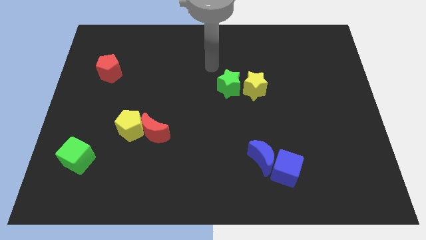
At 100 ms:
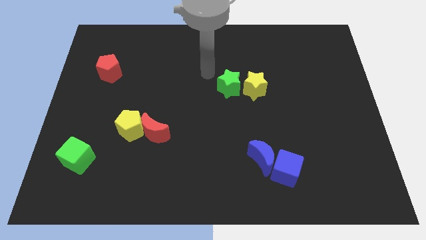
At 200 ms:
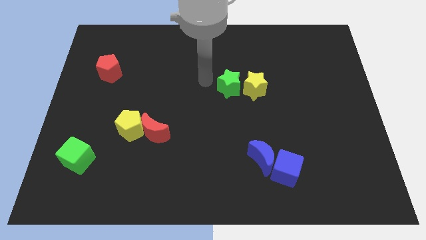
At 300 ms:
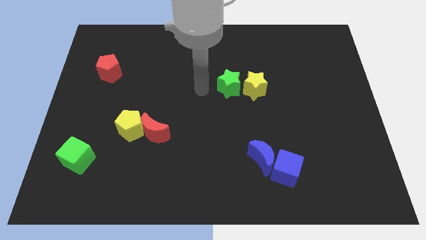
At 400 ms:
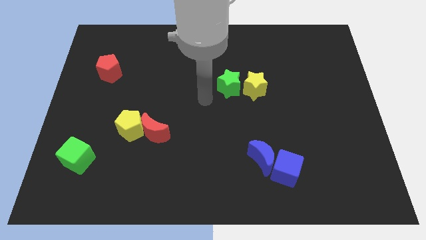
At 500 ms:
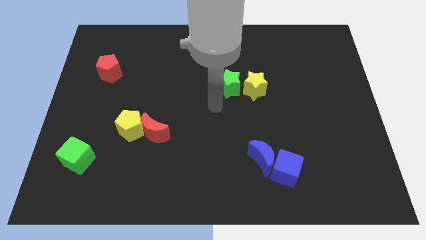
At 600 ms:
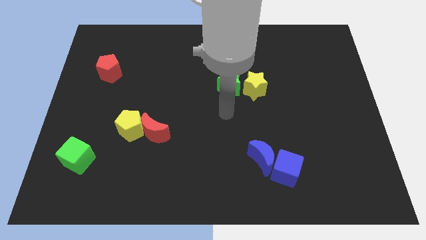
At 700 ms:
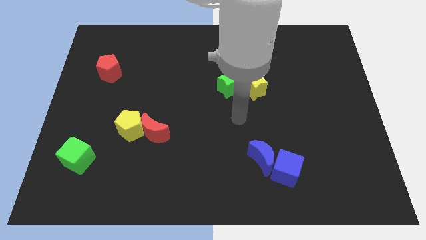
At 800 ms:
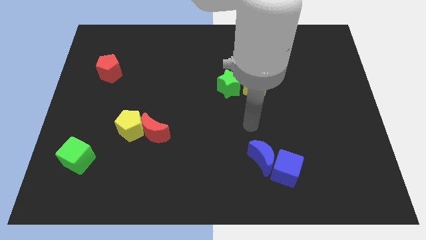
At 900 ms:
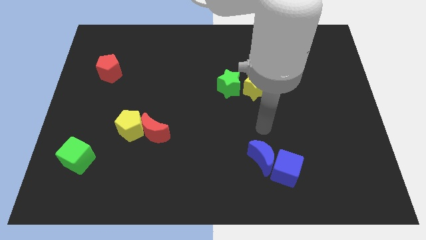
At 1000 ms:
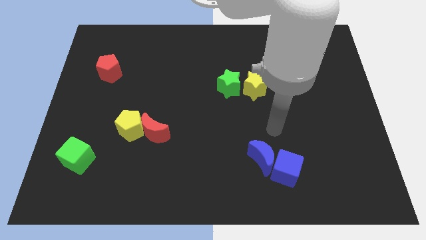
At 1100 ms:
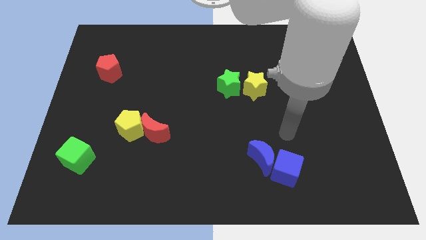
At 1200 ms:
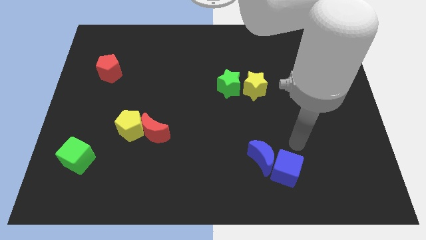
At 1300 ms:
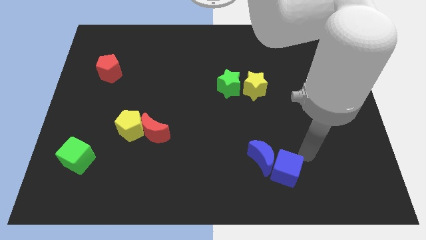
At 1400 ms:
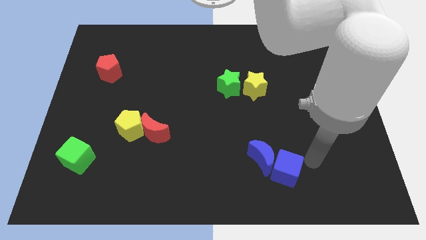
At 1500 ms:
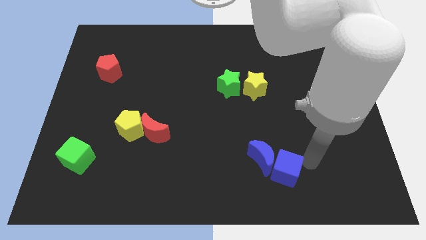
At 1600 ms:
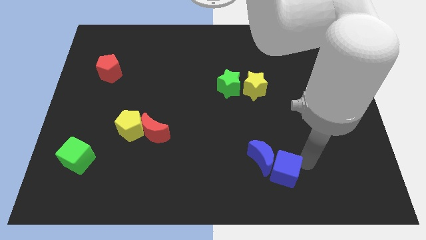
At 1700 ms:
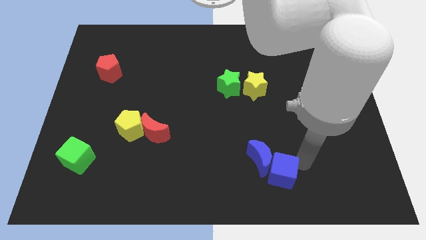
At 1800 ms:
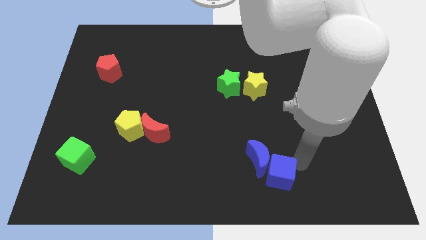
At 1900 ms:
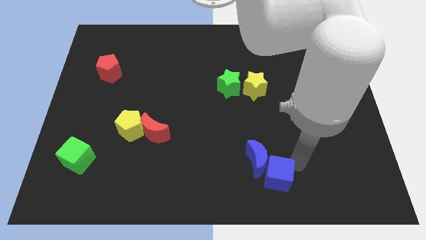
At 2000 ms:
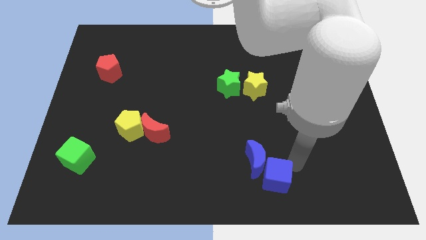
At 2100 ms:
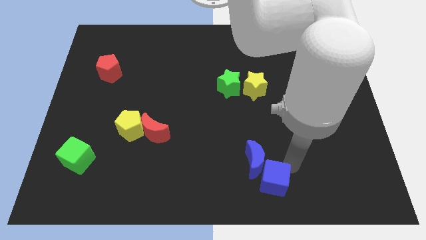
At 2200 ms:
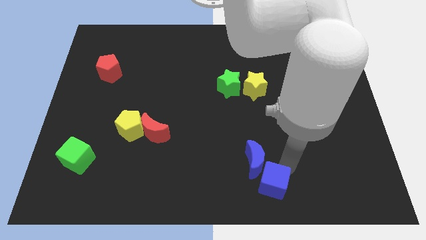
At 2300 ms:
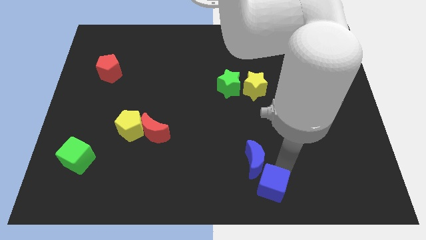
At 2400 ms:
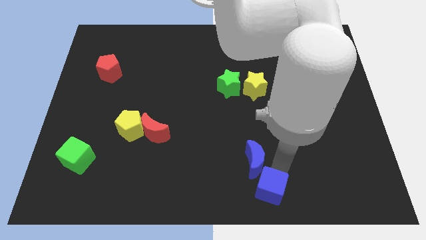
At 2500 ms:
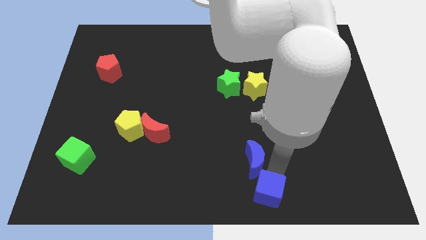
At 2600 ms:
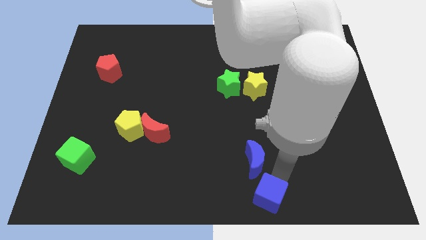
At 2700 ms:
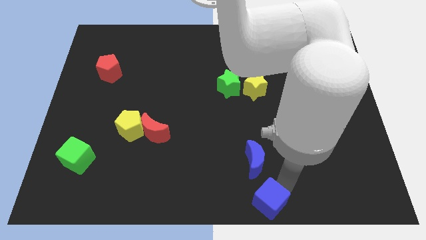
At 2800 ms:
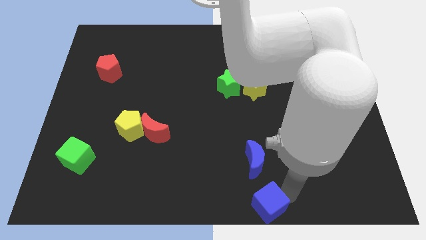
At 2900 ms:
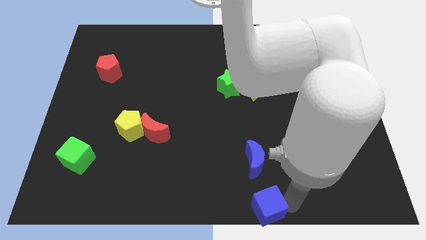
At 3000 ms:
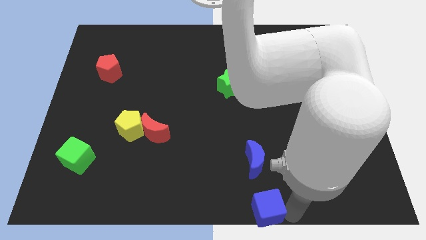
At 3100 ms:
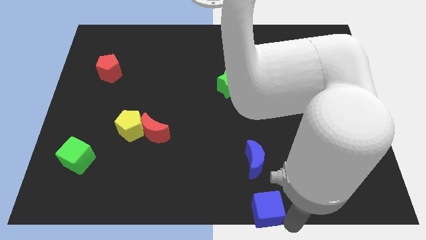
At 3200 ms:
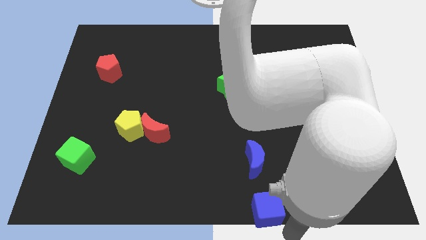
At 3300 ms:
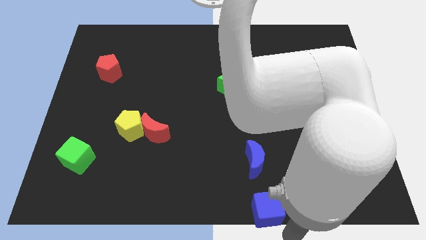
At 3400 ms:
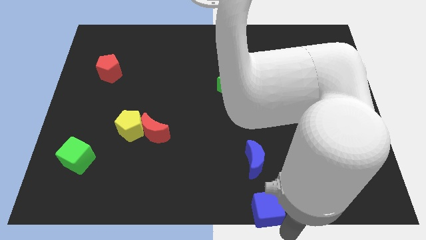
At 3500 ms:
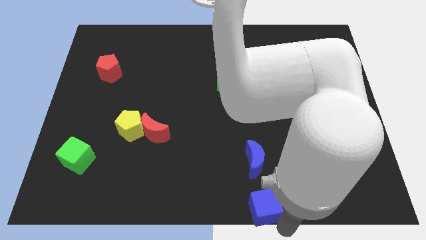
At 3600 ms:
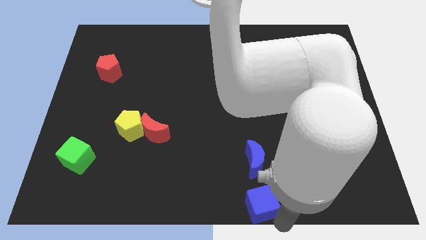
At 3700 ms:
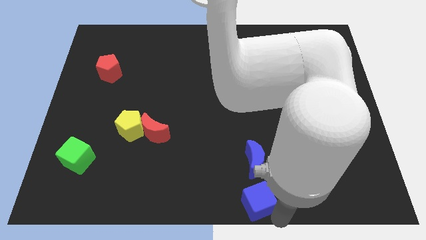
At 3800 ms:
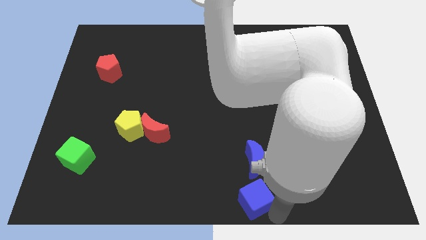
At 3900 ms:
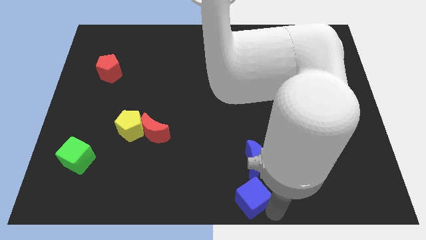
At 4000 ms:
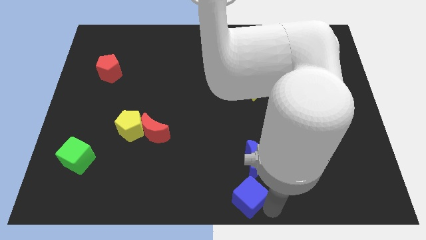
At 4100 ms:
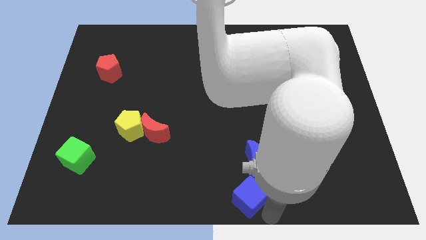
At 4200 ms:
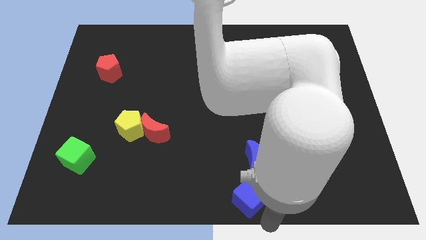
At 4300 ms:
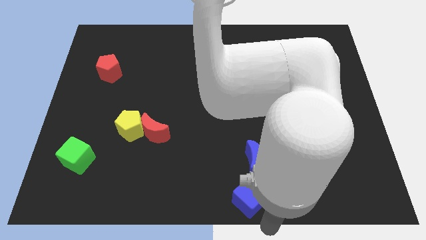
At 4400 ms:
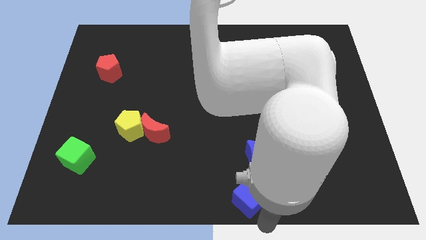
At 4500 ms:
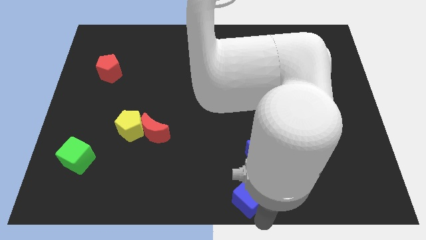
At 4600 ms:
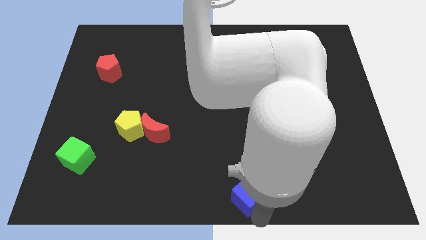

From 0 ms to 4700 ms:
push the blue cube a bit to the left

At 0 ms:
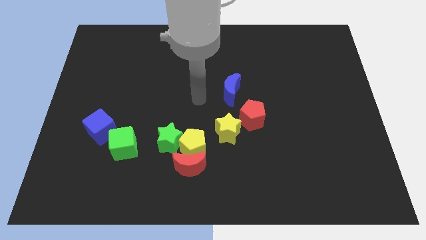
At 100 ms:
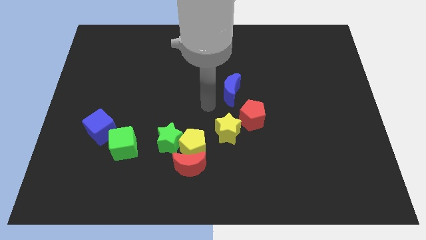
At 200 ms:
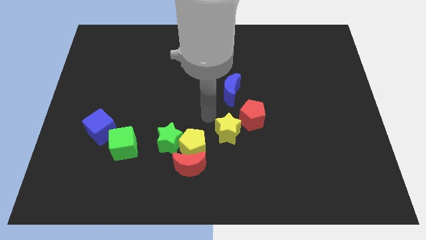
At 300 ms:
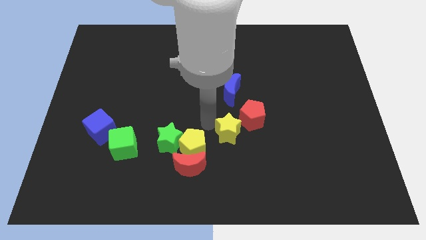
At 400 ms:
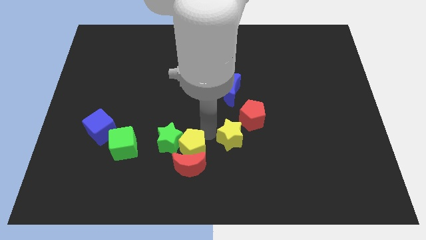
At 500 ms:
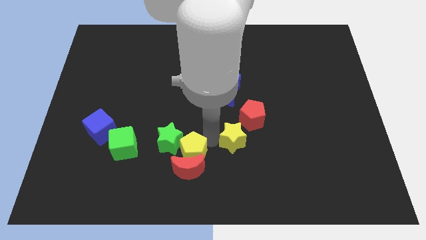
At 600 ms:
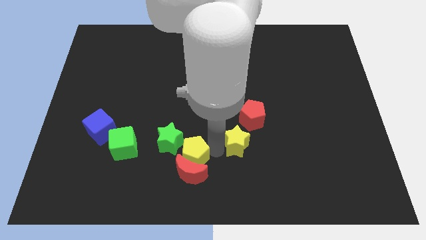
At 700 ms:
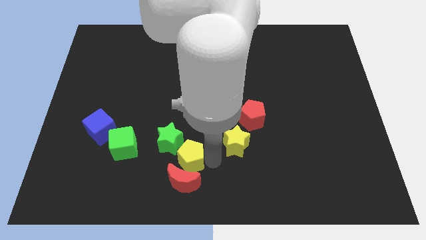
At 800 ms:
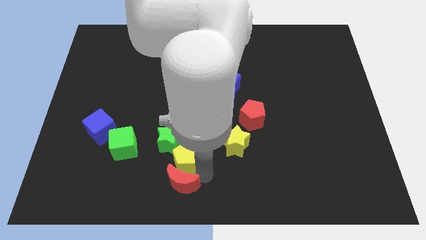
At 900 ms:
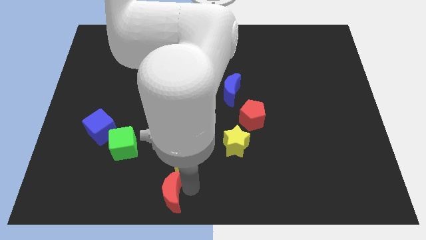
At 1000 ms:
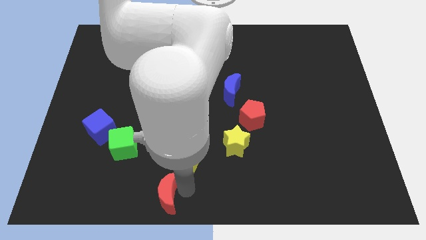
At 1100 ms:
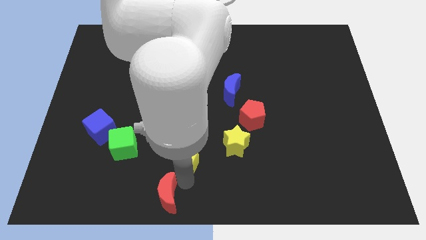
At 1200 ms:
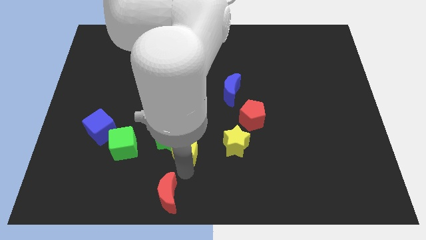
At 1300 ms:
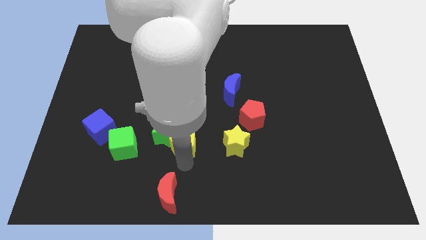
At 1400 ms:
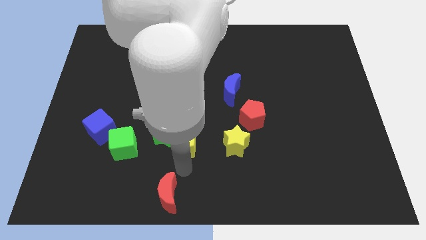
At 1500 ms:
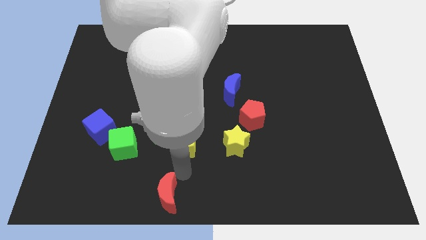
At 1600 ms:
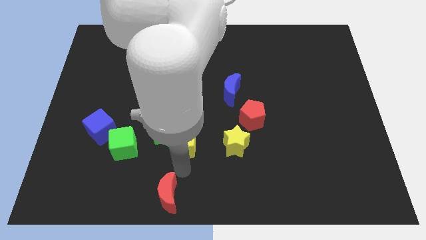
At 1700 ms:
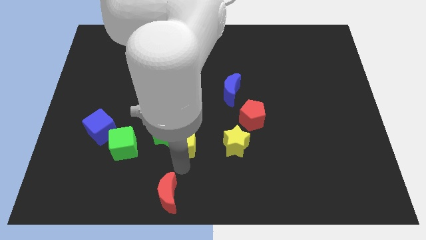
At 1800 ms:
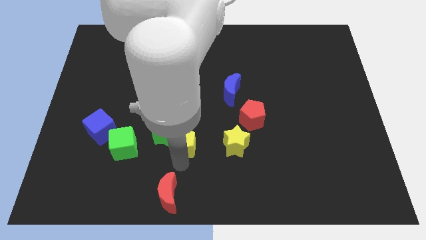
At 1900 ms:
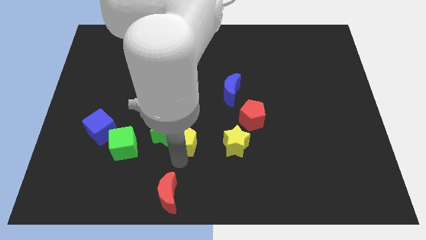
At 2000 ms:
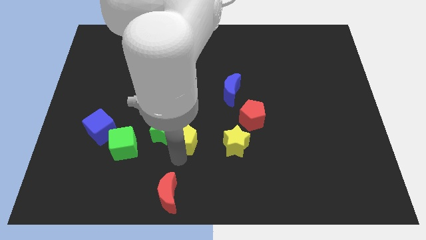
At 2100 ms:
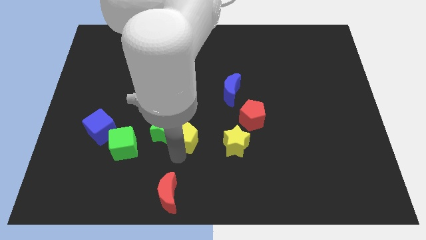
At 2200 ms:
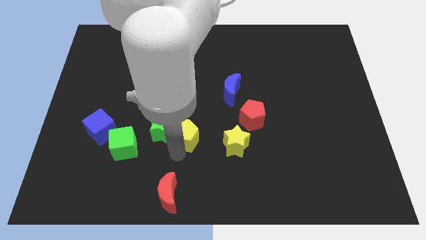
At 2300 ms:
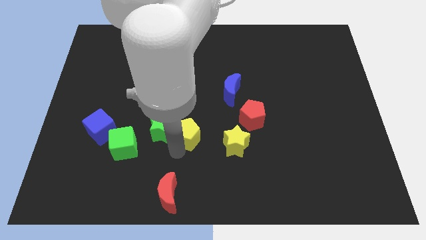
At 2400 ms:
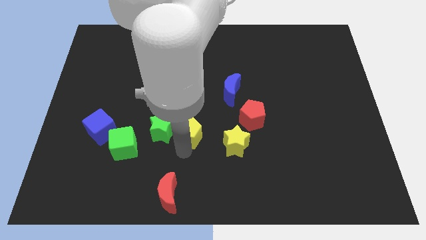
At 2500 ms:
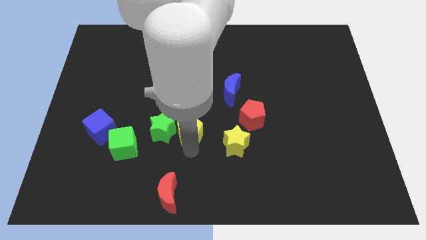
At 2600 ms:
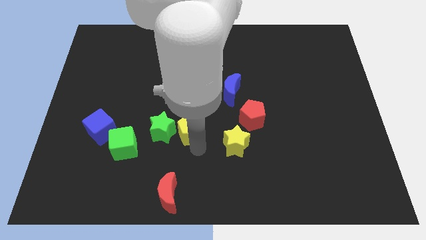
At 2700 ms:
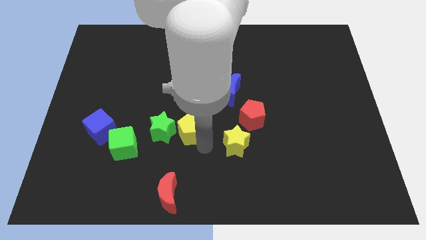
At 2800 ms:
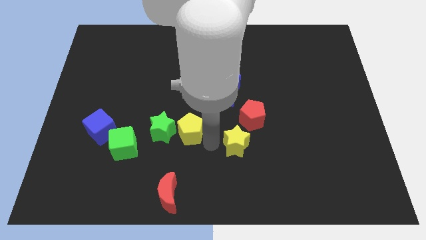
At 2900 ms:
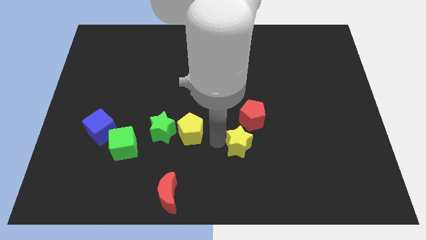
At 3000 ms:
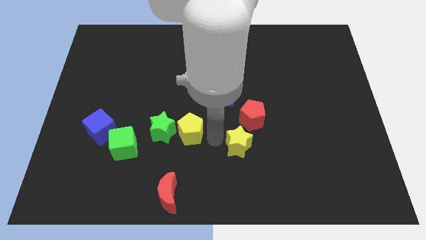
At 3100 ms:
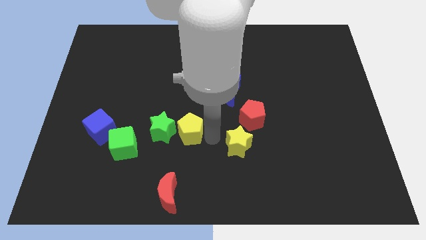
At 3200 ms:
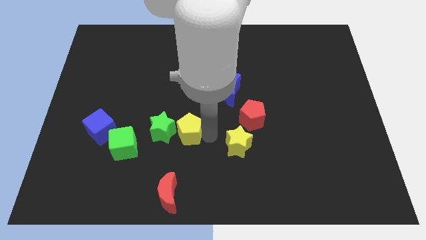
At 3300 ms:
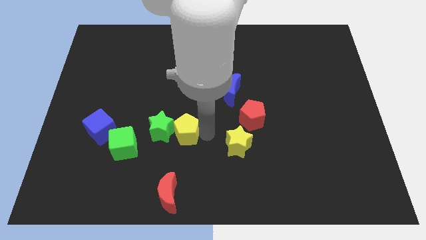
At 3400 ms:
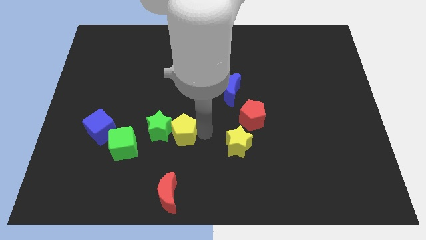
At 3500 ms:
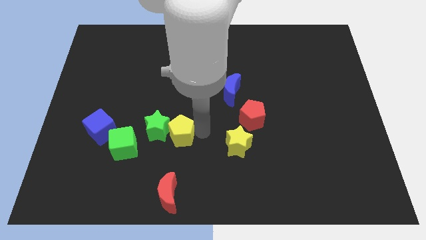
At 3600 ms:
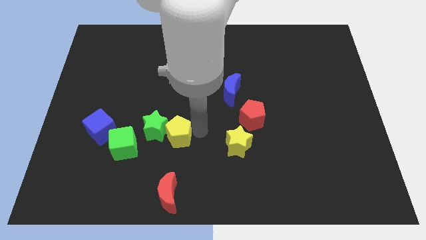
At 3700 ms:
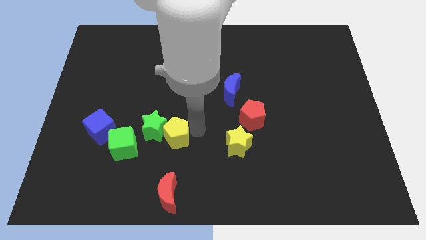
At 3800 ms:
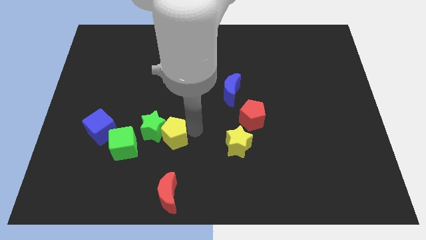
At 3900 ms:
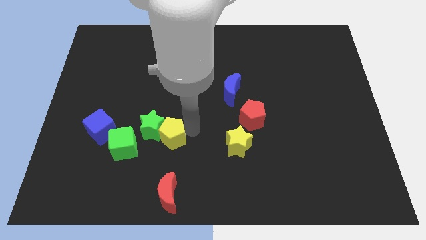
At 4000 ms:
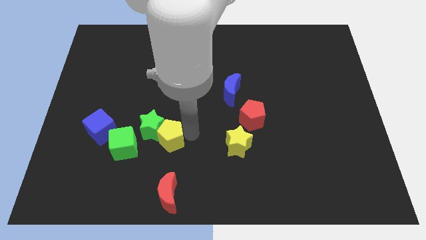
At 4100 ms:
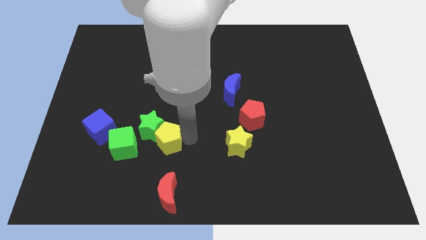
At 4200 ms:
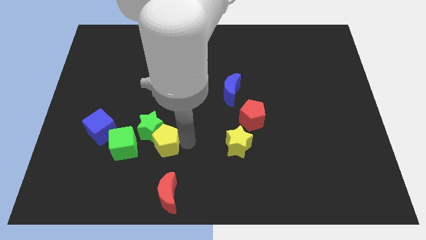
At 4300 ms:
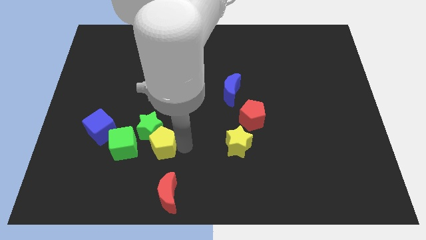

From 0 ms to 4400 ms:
move the yellow pentagon to the left a bit
